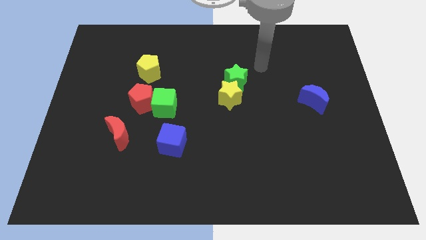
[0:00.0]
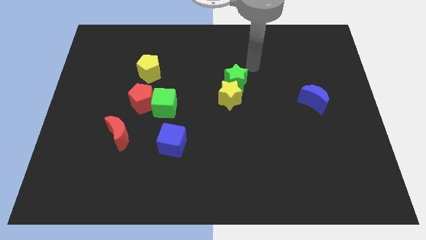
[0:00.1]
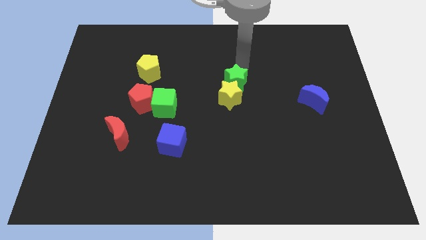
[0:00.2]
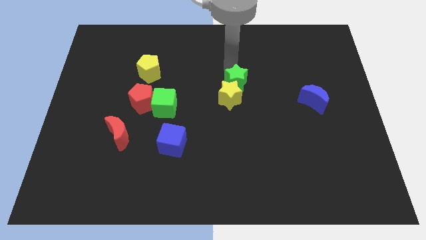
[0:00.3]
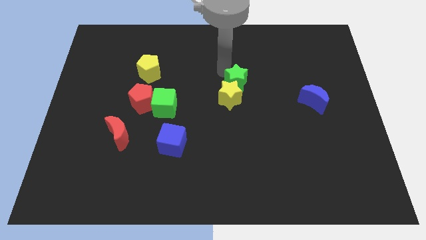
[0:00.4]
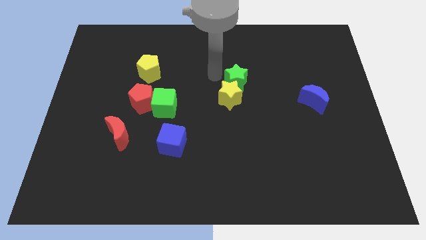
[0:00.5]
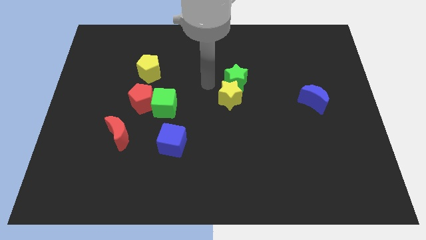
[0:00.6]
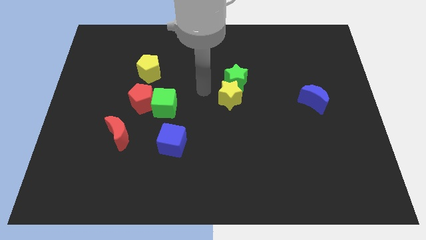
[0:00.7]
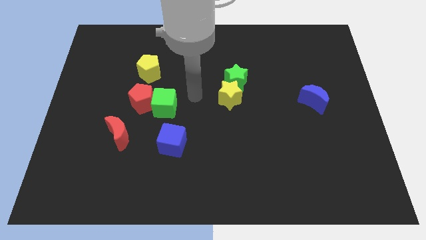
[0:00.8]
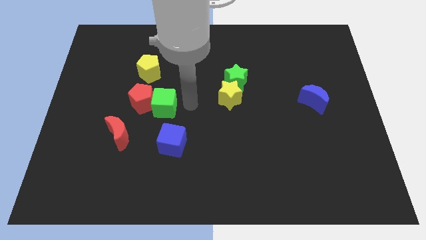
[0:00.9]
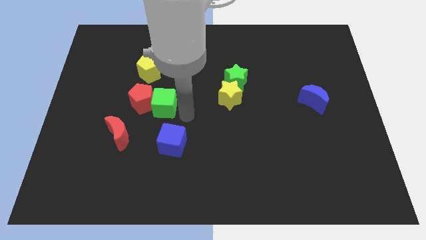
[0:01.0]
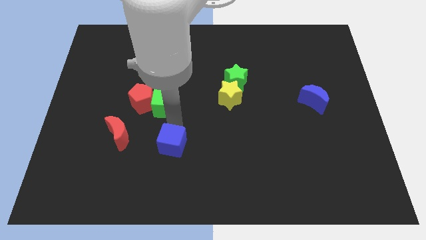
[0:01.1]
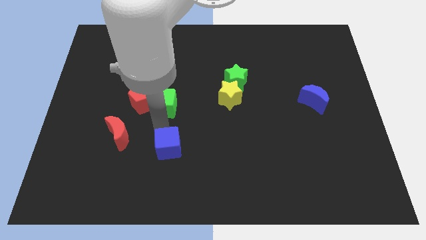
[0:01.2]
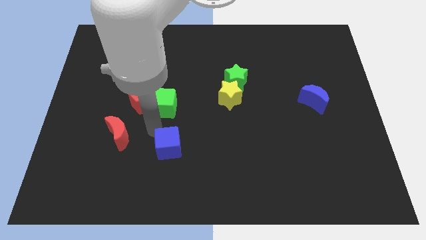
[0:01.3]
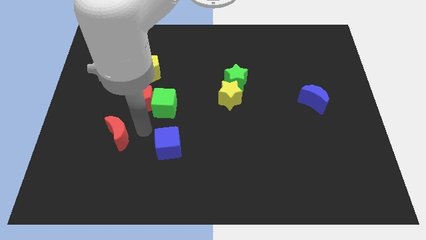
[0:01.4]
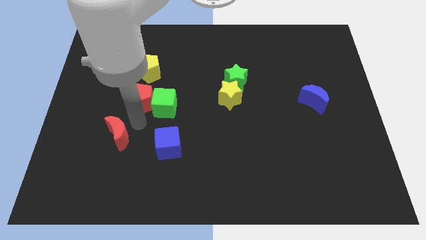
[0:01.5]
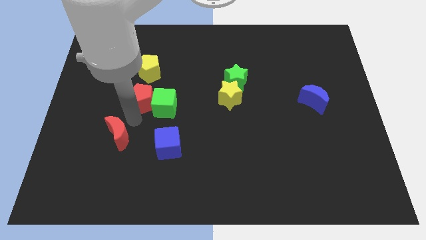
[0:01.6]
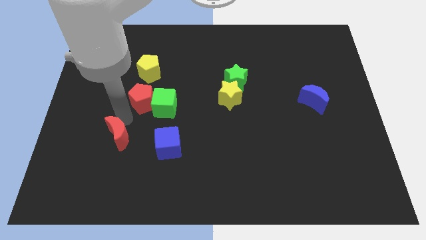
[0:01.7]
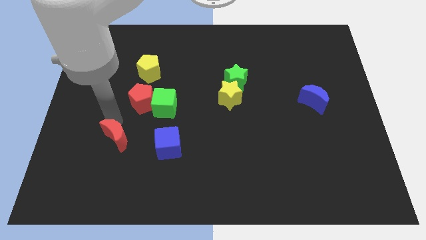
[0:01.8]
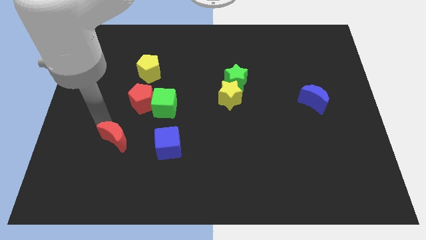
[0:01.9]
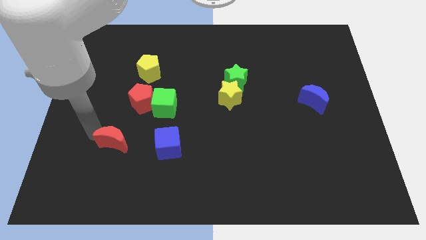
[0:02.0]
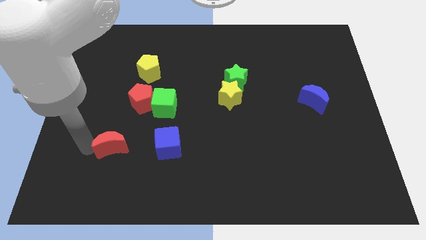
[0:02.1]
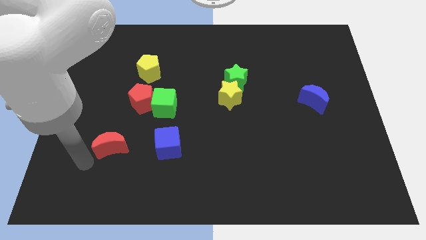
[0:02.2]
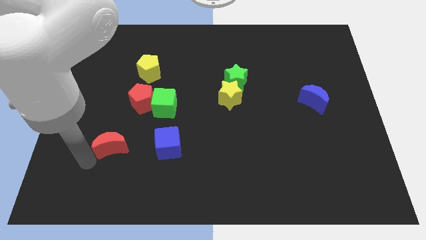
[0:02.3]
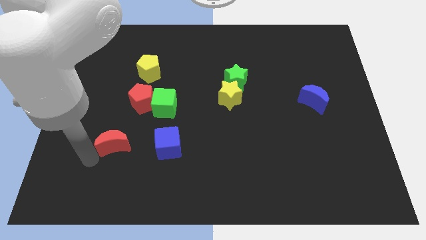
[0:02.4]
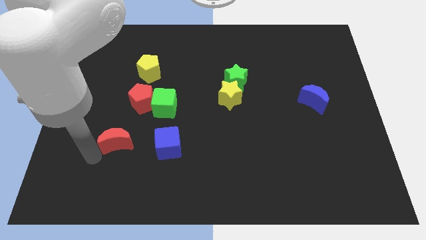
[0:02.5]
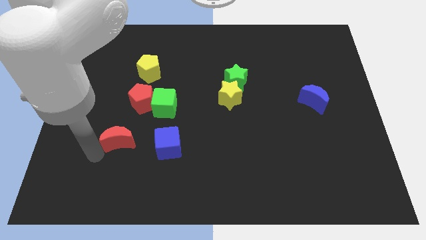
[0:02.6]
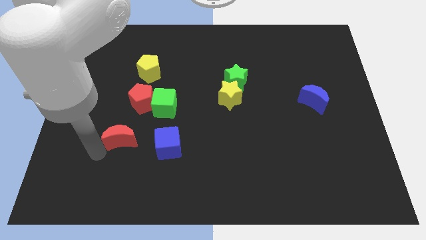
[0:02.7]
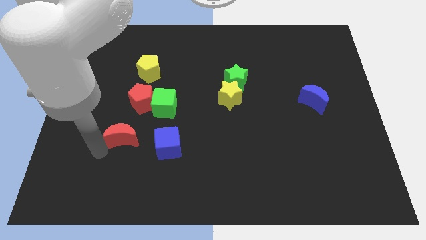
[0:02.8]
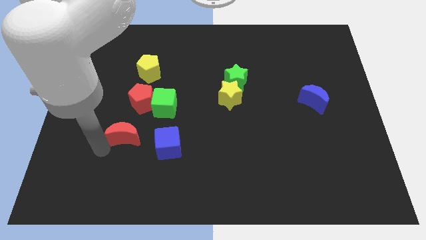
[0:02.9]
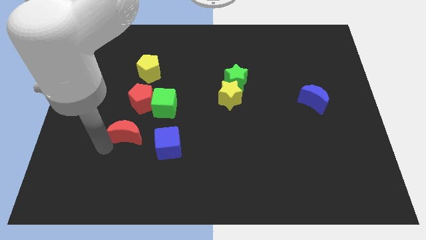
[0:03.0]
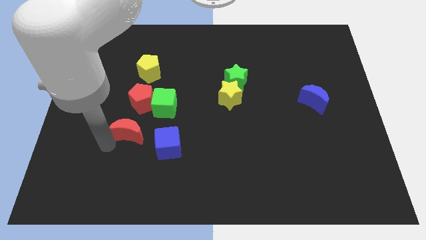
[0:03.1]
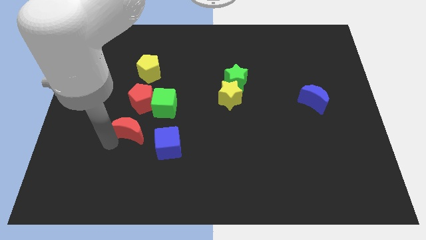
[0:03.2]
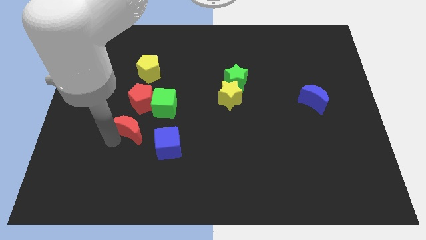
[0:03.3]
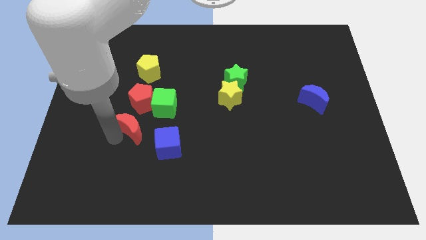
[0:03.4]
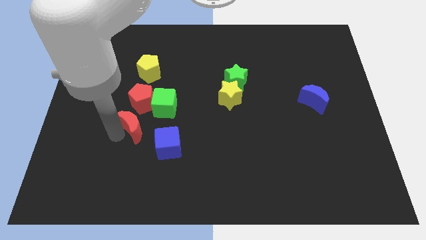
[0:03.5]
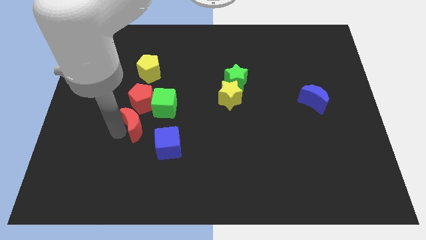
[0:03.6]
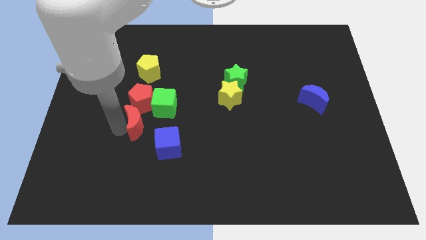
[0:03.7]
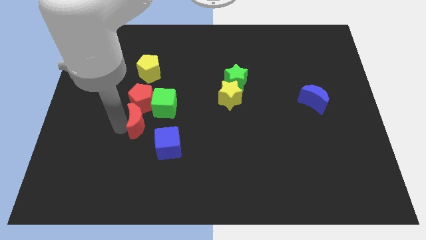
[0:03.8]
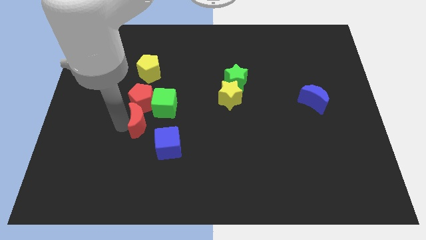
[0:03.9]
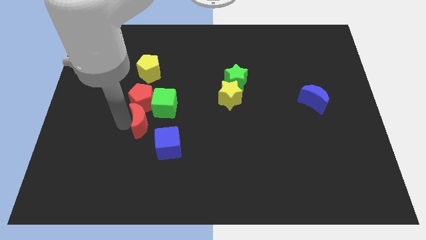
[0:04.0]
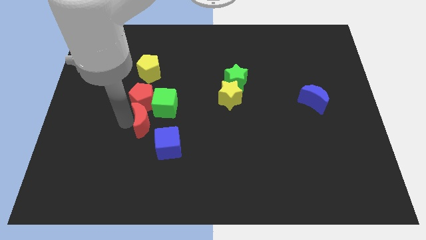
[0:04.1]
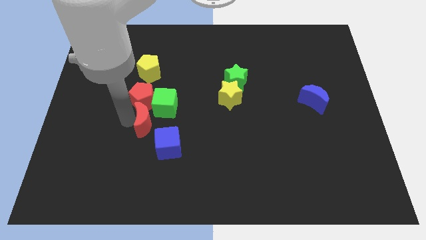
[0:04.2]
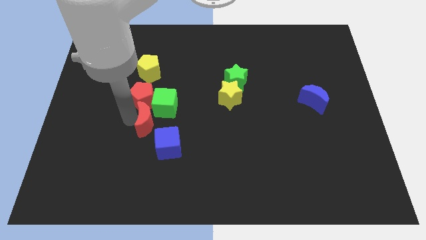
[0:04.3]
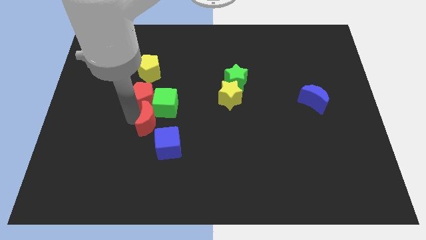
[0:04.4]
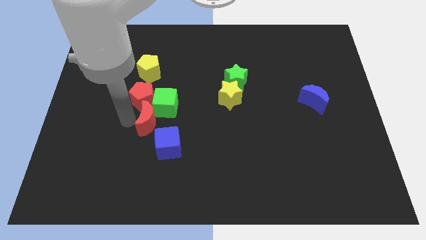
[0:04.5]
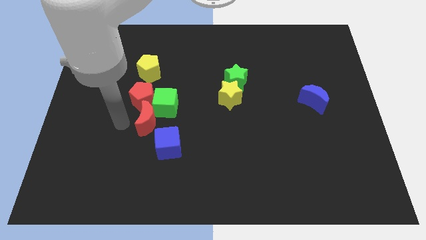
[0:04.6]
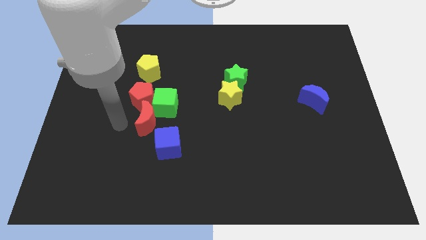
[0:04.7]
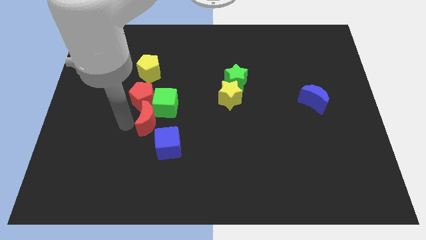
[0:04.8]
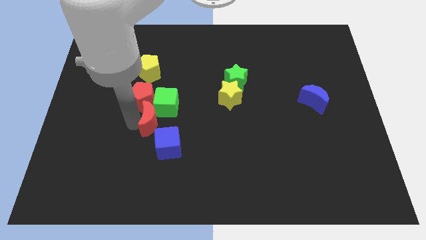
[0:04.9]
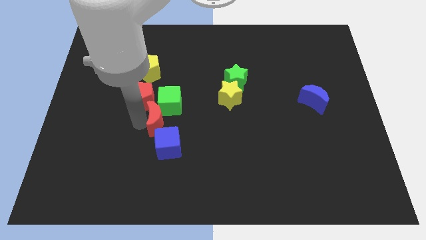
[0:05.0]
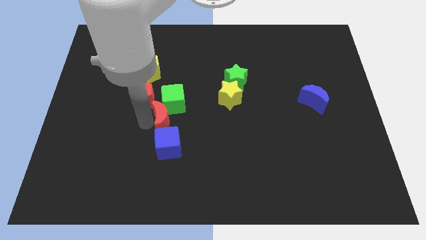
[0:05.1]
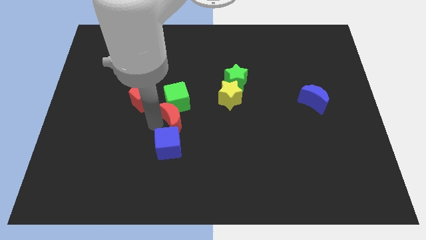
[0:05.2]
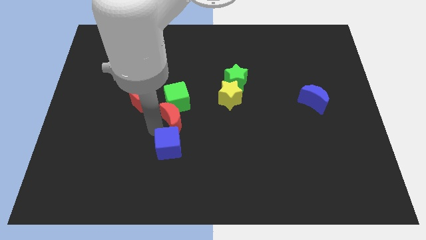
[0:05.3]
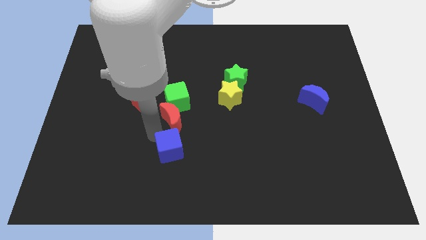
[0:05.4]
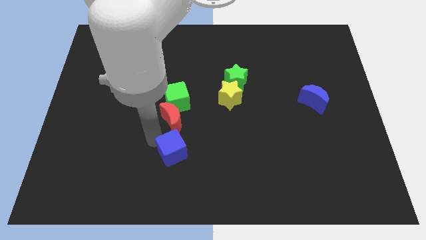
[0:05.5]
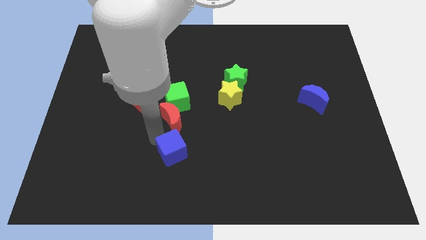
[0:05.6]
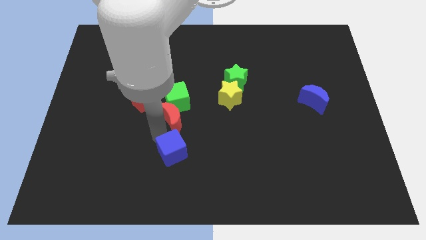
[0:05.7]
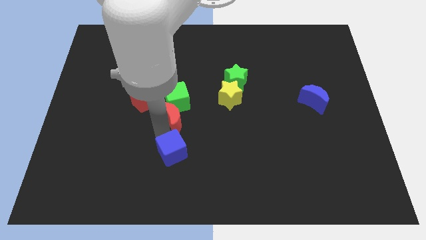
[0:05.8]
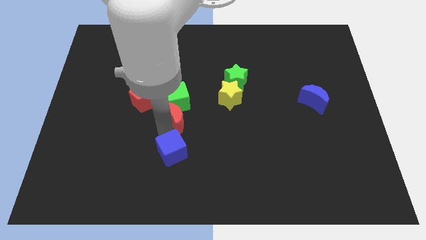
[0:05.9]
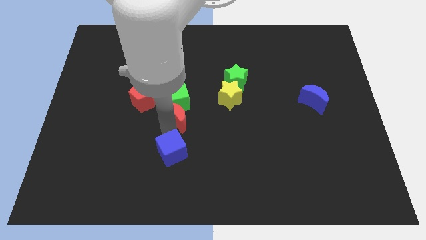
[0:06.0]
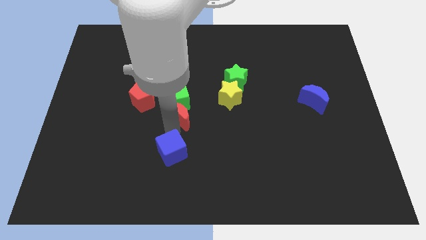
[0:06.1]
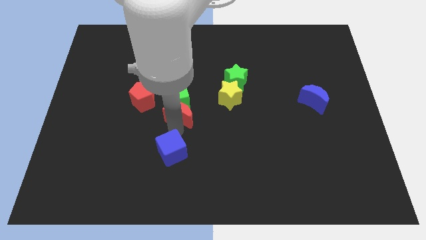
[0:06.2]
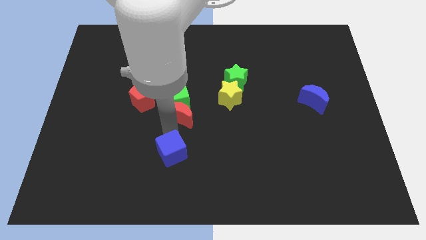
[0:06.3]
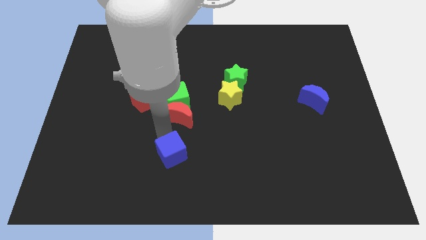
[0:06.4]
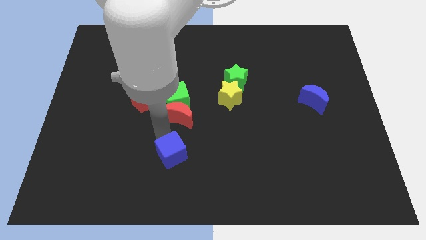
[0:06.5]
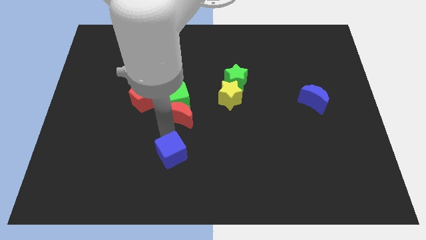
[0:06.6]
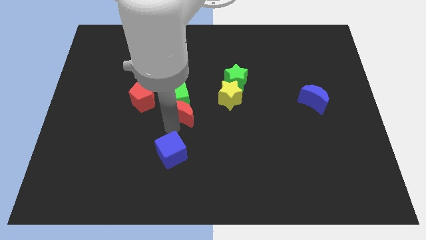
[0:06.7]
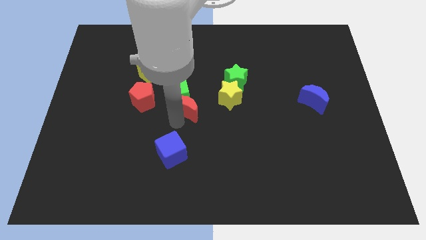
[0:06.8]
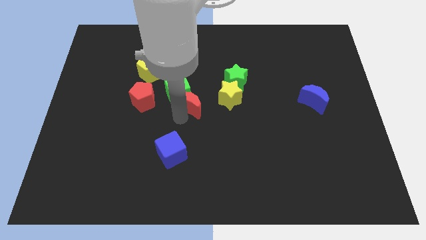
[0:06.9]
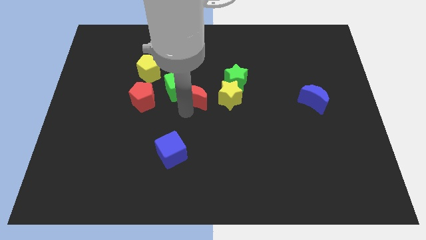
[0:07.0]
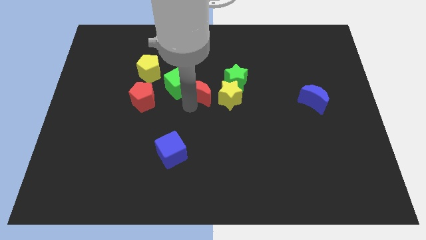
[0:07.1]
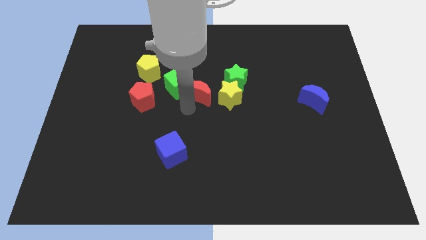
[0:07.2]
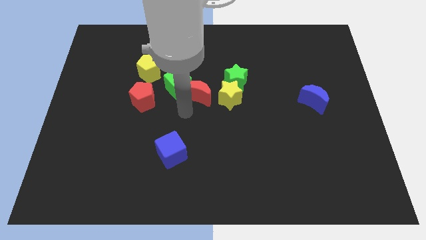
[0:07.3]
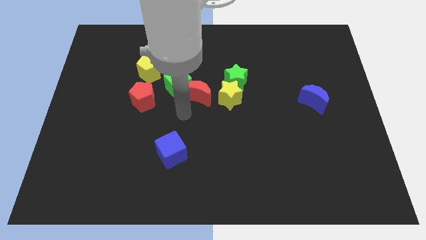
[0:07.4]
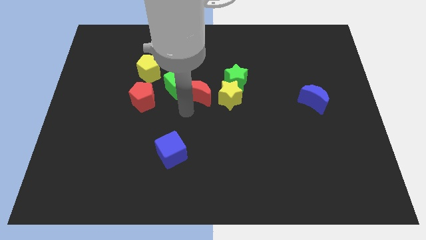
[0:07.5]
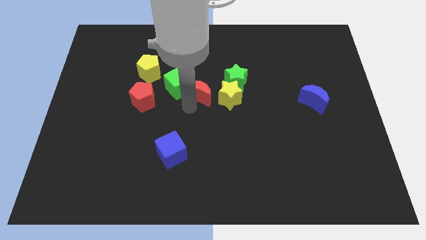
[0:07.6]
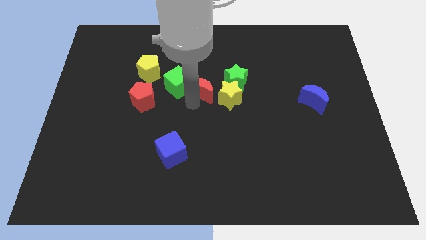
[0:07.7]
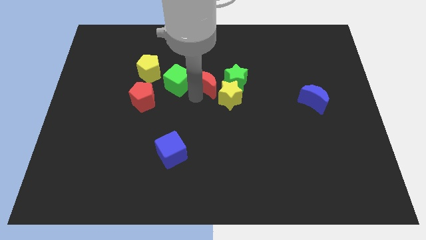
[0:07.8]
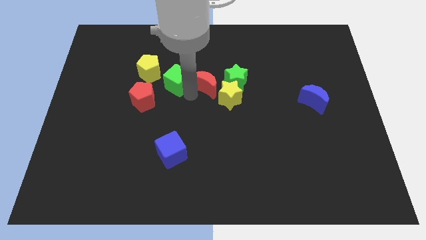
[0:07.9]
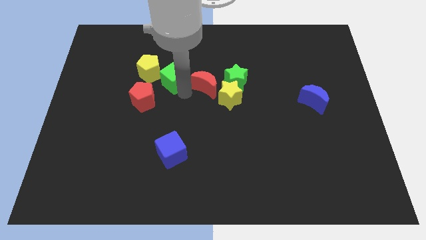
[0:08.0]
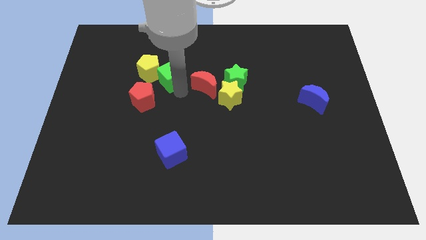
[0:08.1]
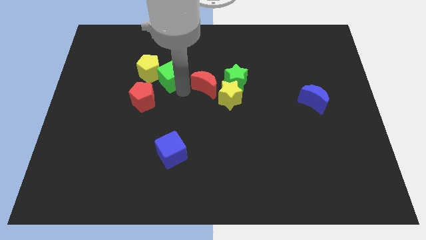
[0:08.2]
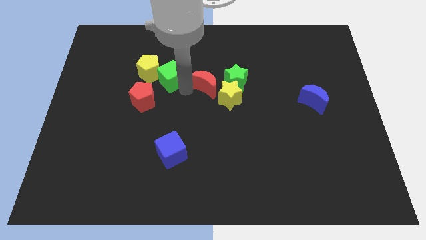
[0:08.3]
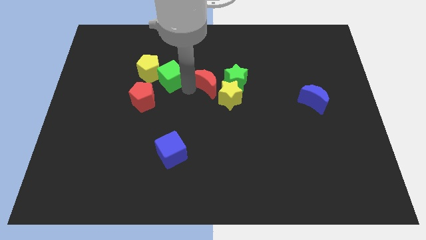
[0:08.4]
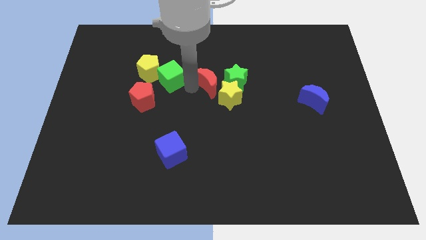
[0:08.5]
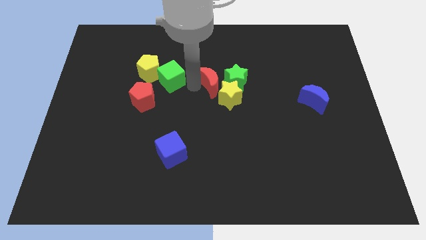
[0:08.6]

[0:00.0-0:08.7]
move the red moon towards the green star
